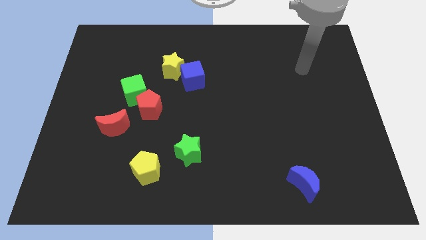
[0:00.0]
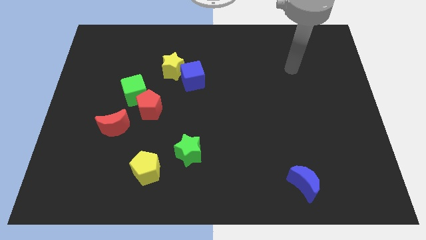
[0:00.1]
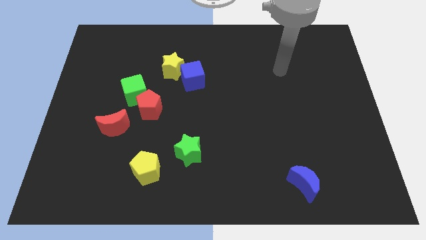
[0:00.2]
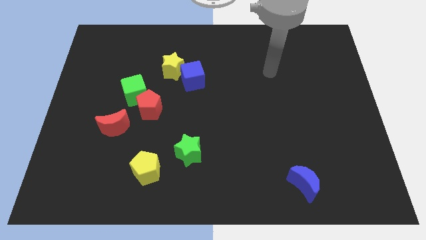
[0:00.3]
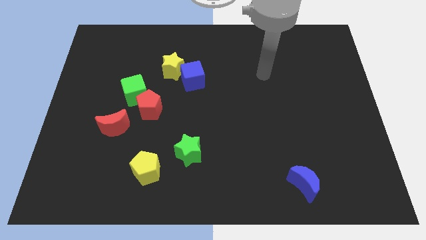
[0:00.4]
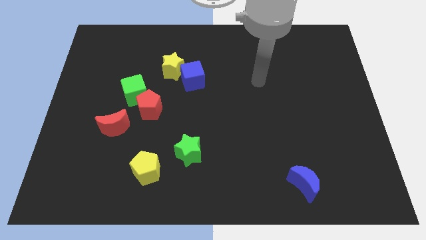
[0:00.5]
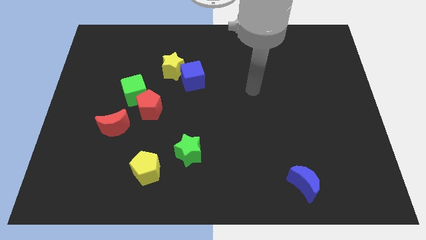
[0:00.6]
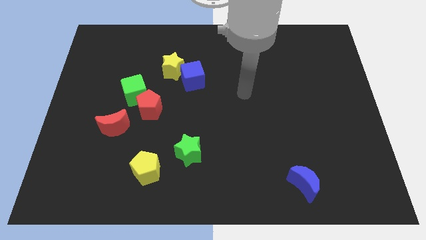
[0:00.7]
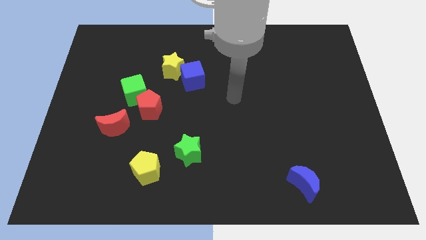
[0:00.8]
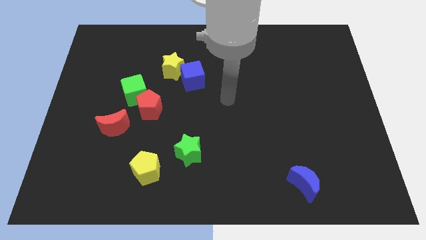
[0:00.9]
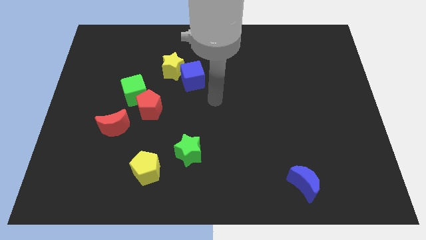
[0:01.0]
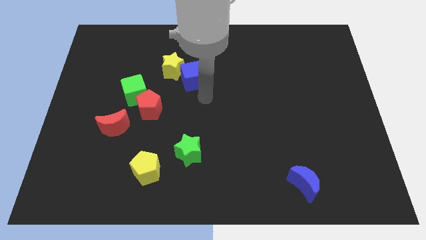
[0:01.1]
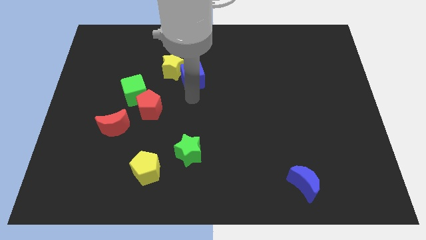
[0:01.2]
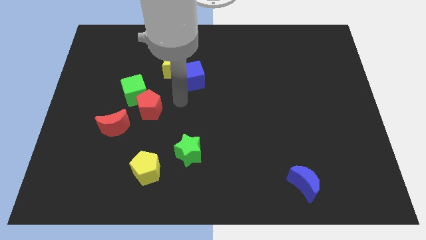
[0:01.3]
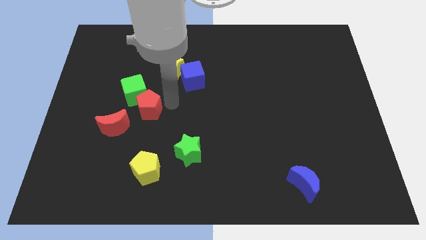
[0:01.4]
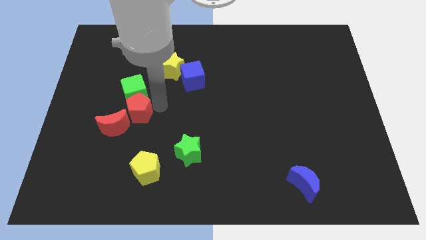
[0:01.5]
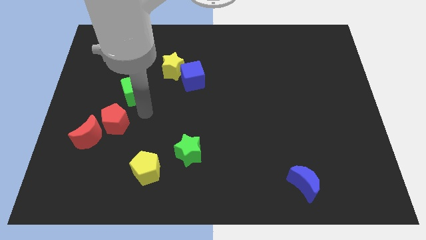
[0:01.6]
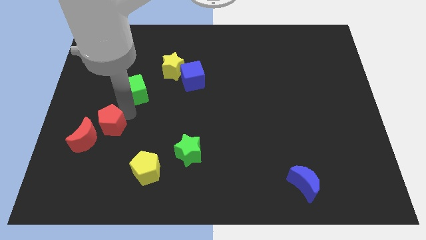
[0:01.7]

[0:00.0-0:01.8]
separate the green cube from the red pentagon

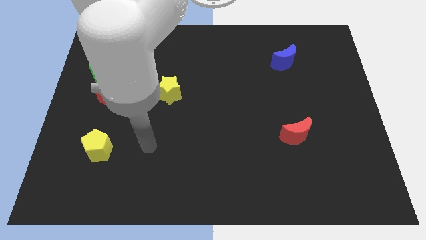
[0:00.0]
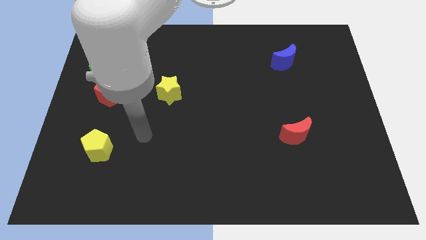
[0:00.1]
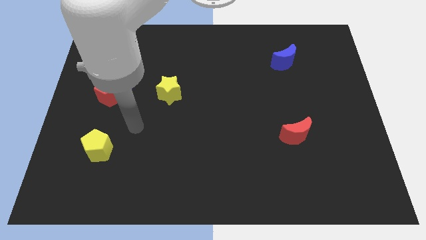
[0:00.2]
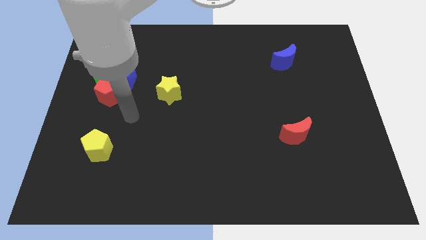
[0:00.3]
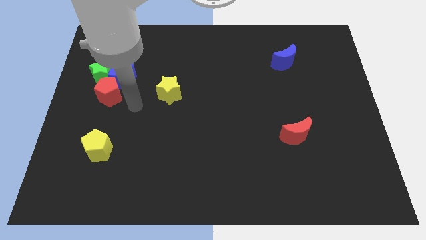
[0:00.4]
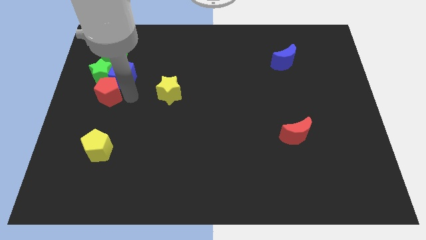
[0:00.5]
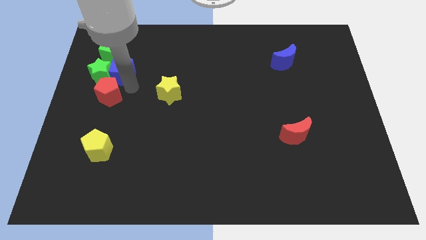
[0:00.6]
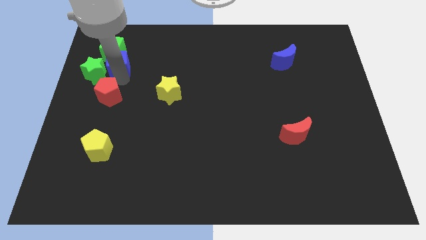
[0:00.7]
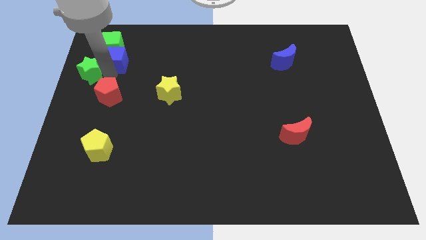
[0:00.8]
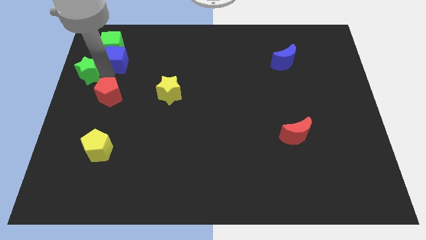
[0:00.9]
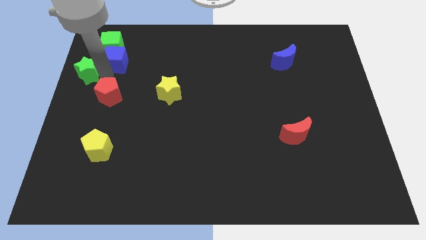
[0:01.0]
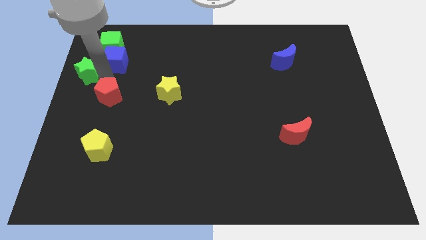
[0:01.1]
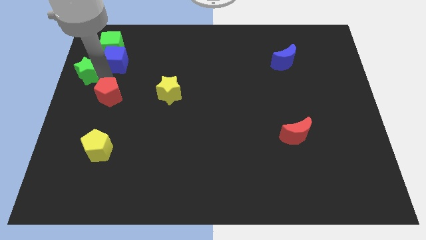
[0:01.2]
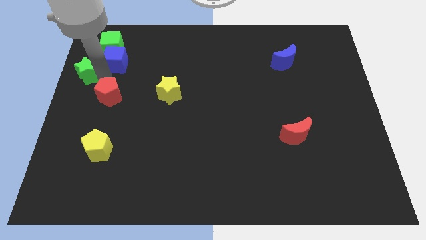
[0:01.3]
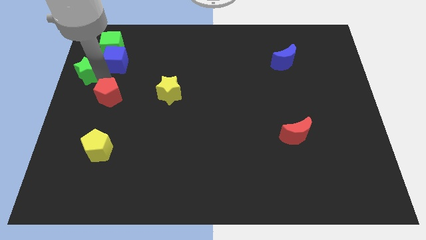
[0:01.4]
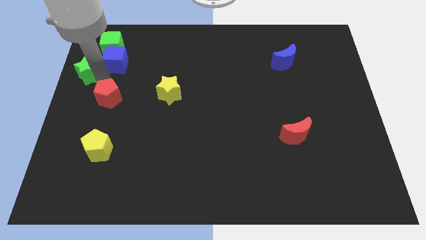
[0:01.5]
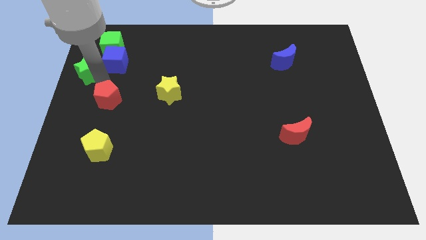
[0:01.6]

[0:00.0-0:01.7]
separate the red pentagon from the blue cube and green star

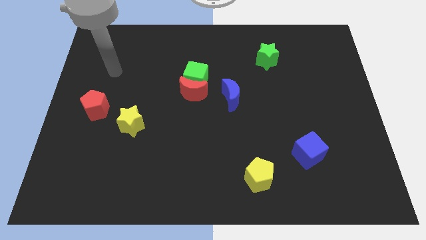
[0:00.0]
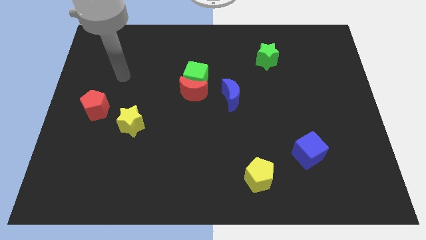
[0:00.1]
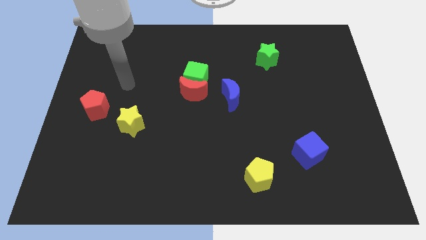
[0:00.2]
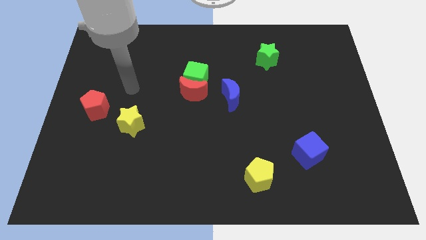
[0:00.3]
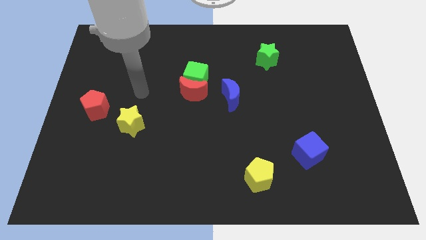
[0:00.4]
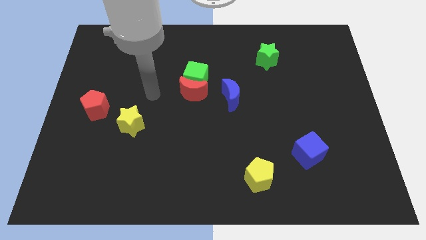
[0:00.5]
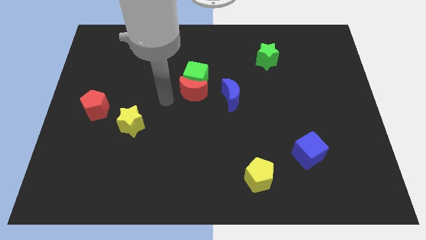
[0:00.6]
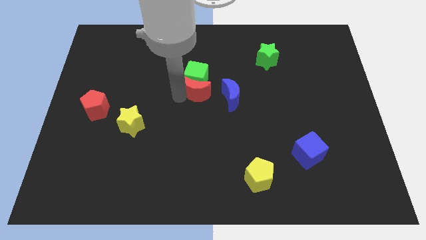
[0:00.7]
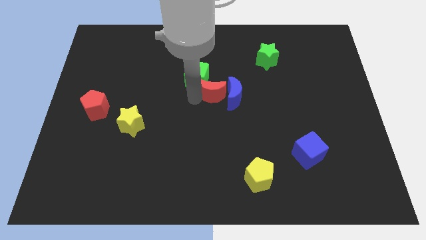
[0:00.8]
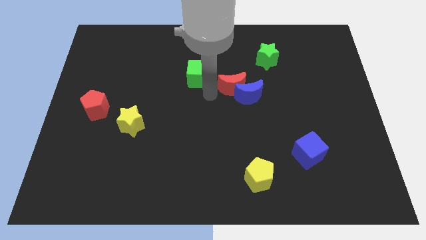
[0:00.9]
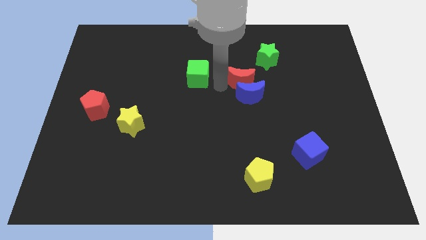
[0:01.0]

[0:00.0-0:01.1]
pull the green cube apart from the red moon

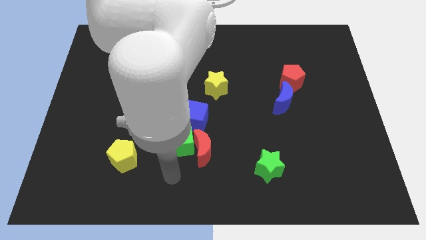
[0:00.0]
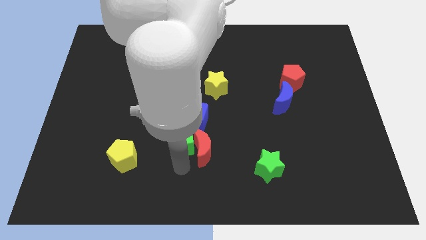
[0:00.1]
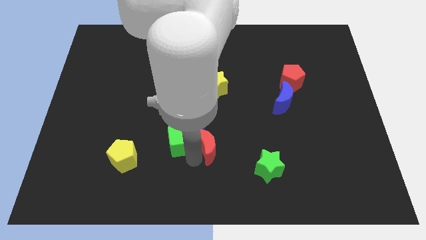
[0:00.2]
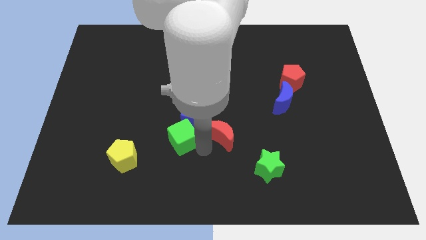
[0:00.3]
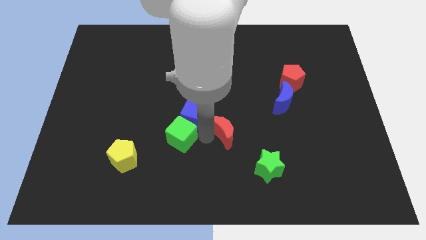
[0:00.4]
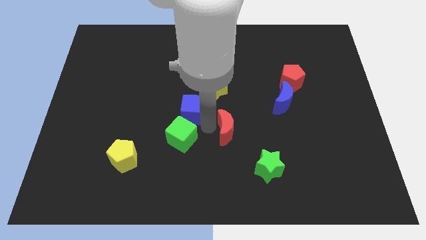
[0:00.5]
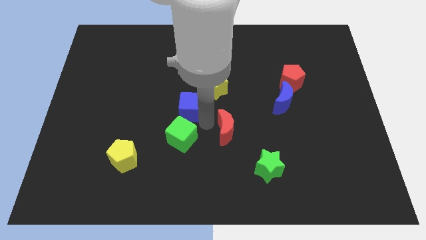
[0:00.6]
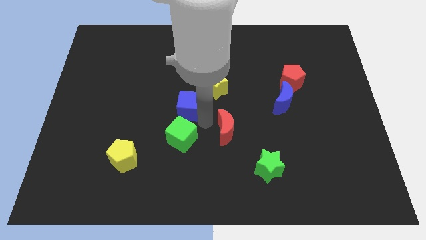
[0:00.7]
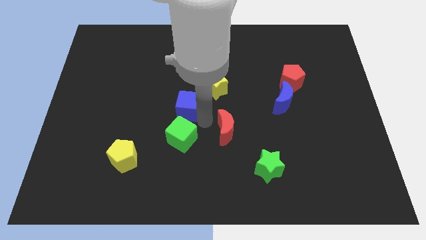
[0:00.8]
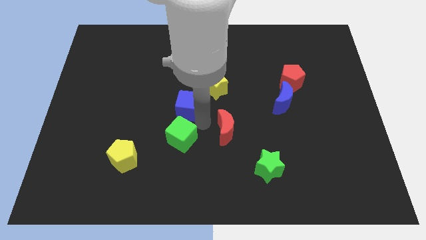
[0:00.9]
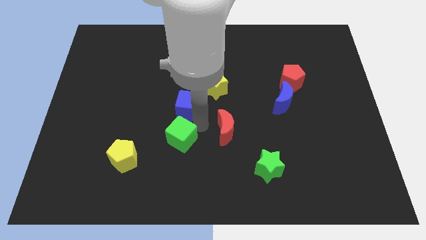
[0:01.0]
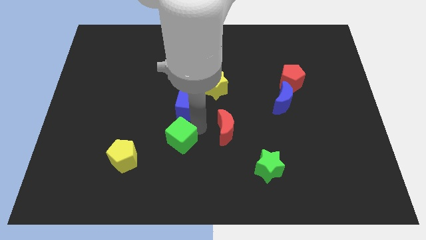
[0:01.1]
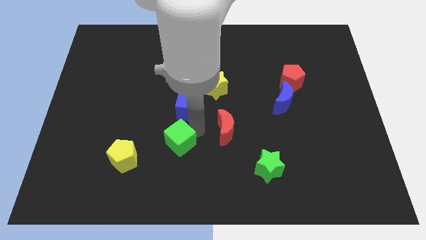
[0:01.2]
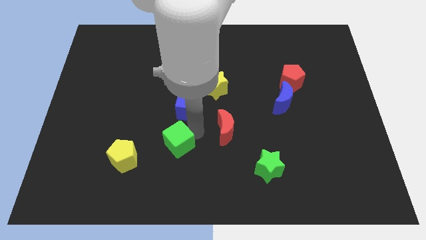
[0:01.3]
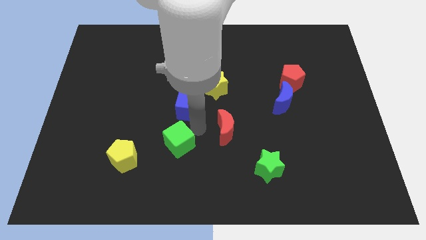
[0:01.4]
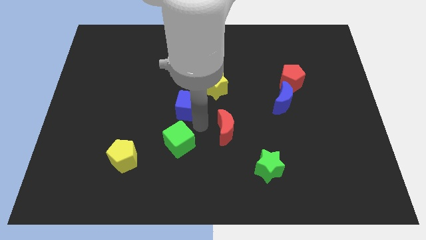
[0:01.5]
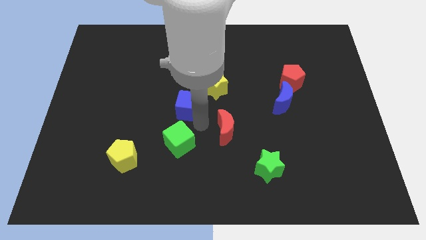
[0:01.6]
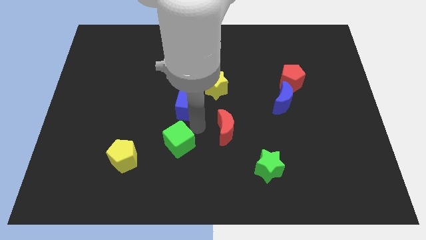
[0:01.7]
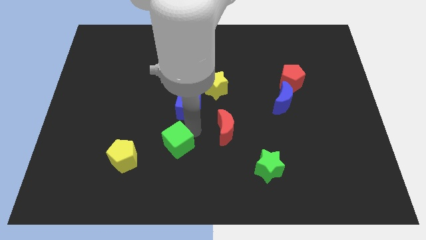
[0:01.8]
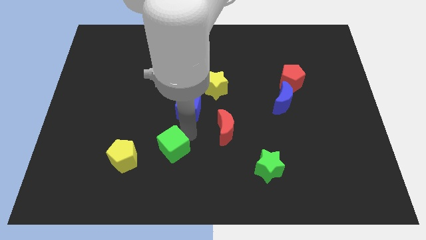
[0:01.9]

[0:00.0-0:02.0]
move the green cube away from the red moon and blue cube

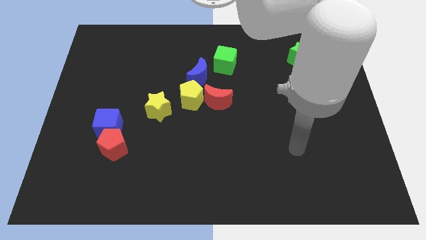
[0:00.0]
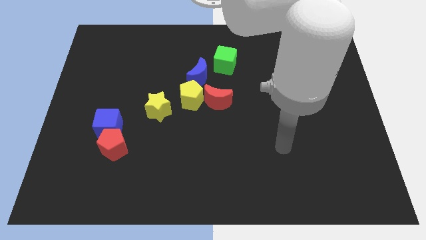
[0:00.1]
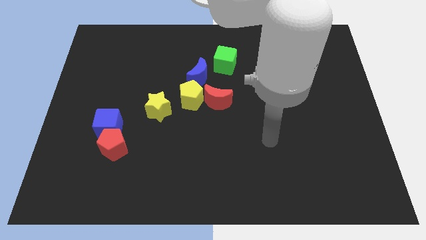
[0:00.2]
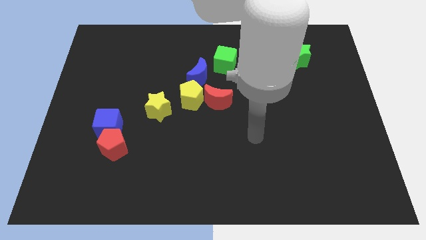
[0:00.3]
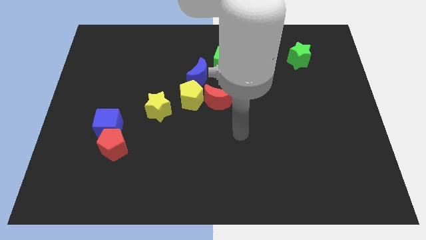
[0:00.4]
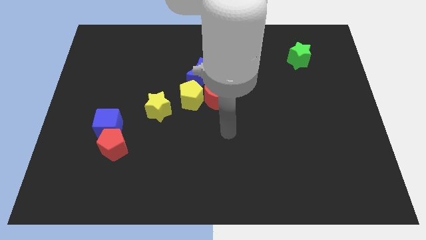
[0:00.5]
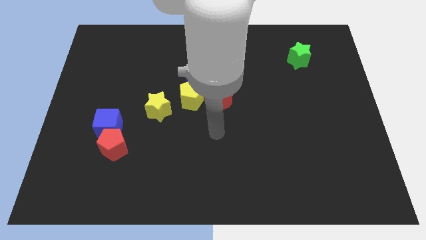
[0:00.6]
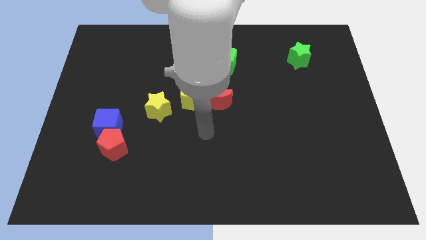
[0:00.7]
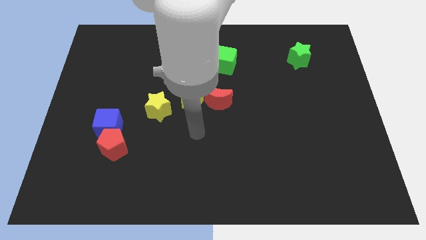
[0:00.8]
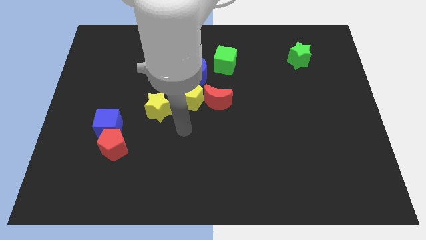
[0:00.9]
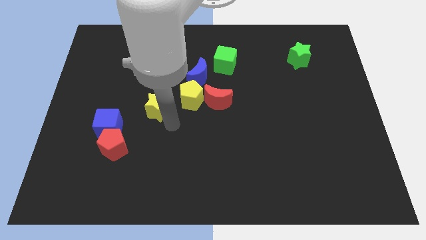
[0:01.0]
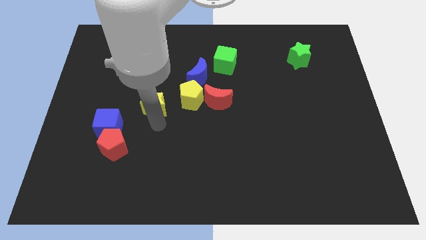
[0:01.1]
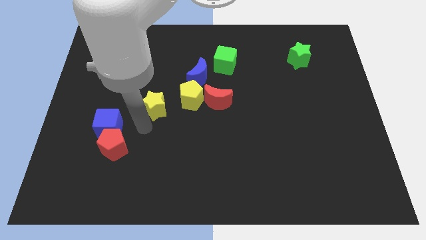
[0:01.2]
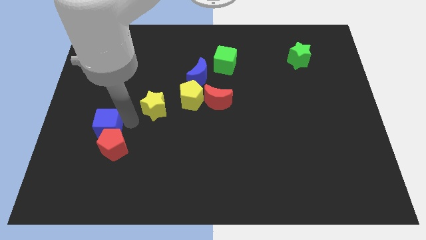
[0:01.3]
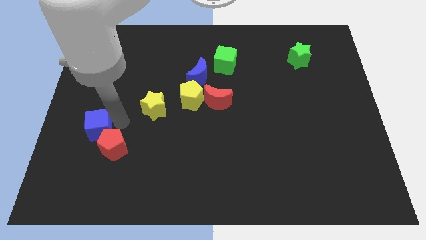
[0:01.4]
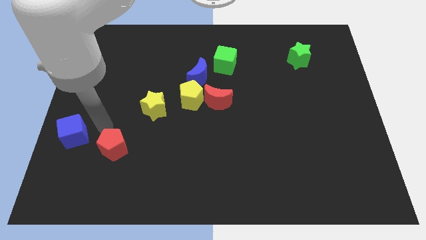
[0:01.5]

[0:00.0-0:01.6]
pull the red pentagon apart from the blue cube

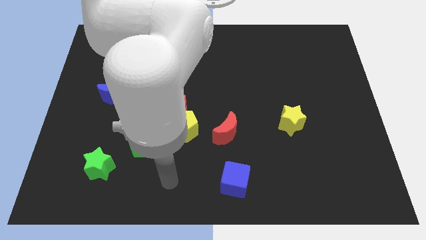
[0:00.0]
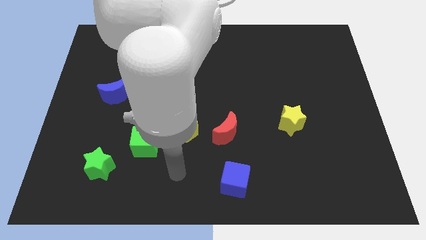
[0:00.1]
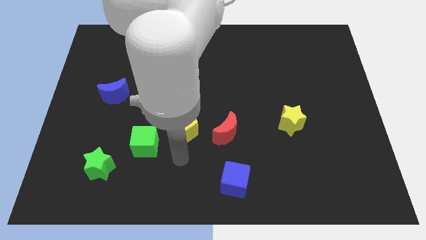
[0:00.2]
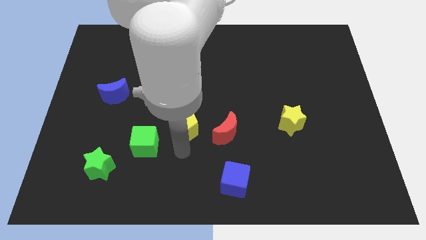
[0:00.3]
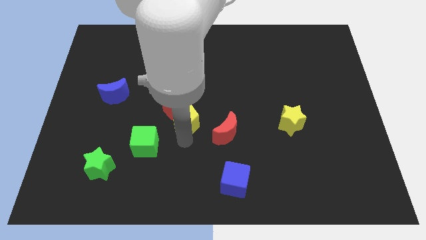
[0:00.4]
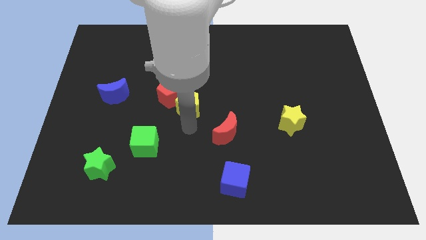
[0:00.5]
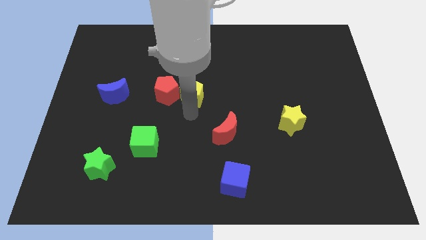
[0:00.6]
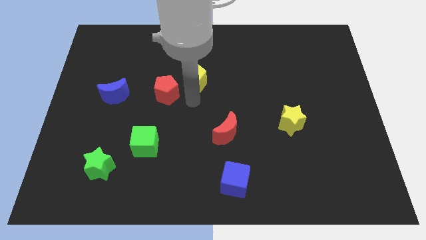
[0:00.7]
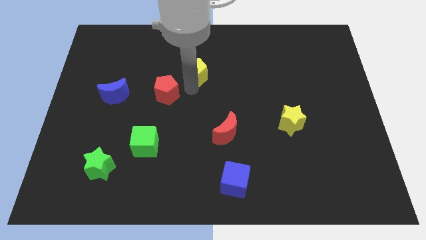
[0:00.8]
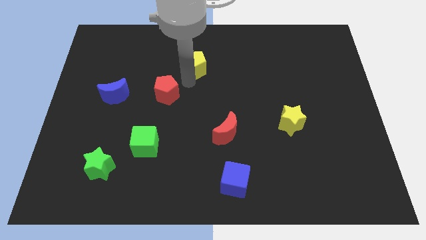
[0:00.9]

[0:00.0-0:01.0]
pull the red pentagon apart from the yellow pentagon
